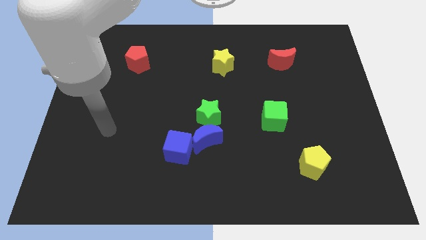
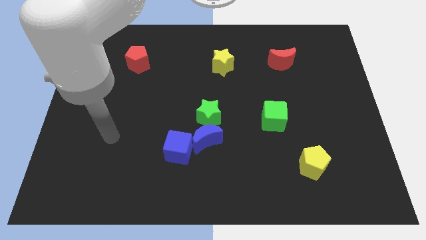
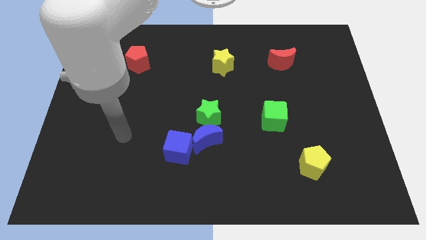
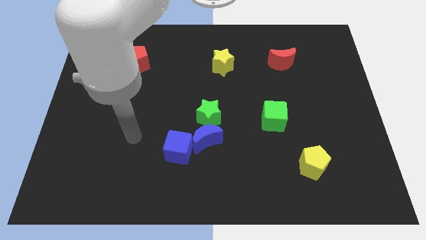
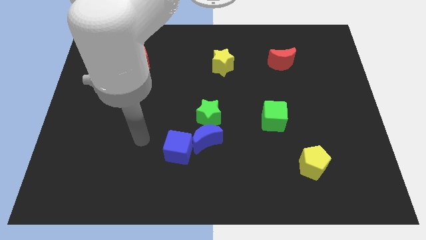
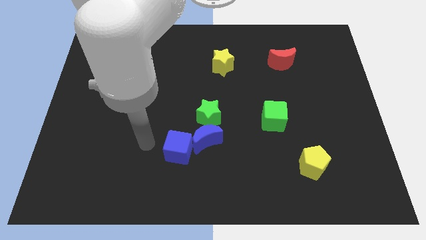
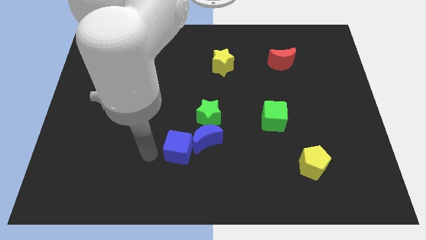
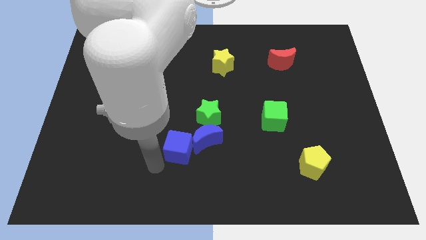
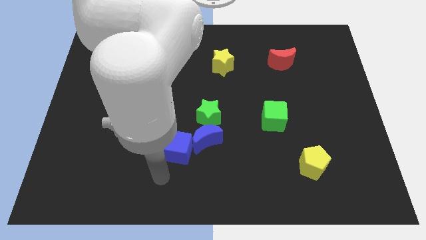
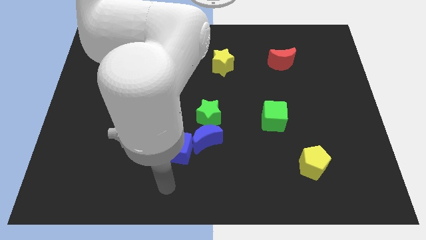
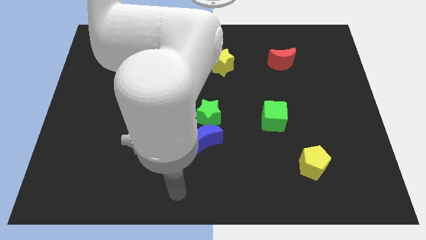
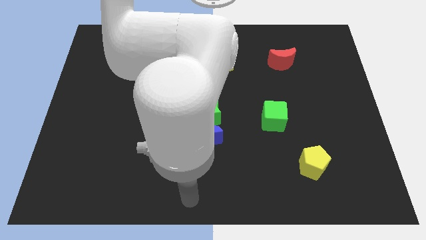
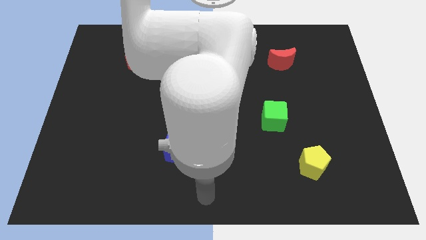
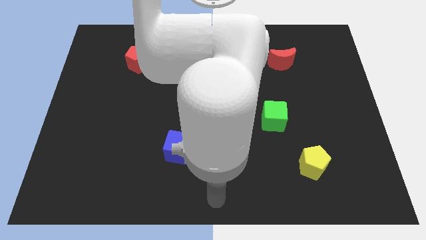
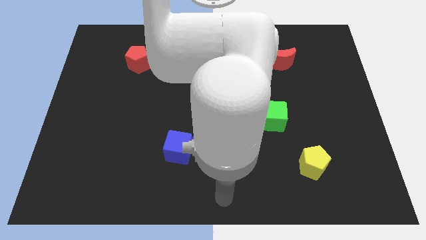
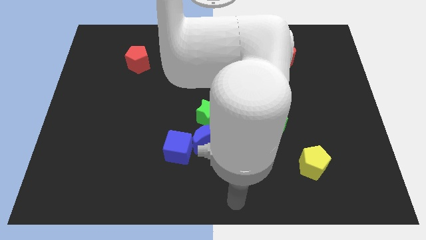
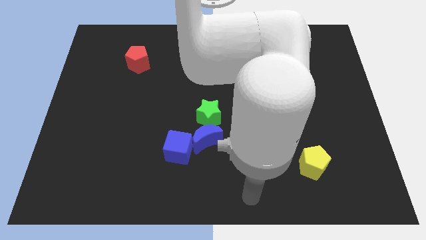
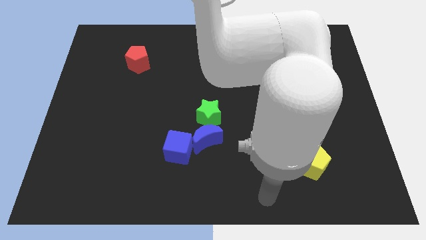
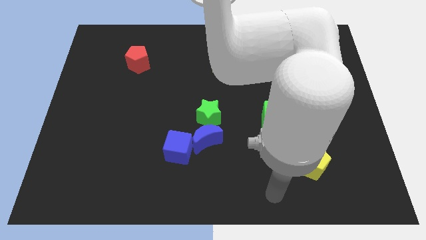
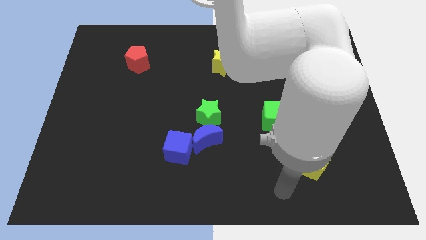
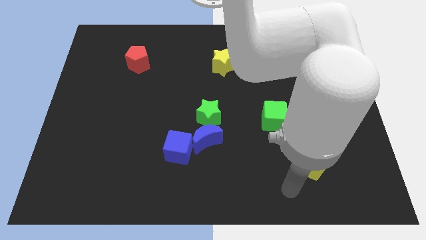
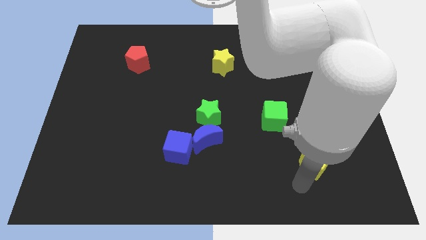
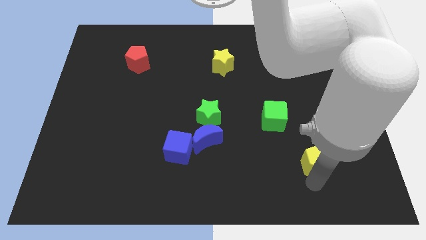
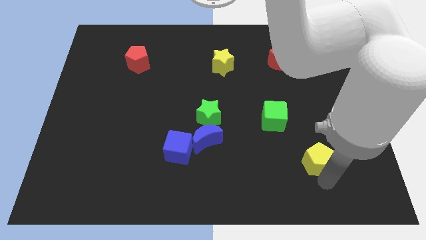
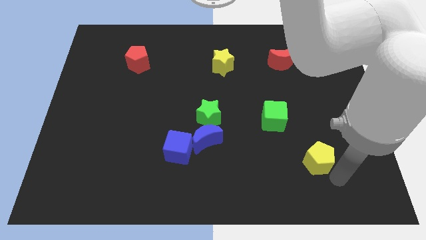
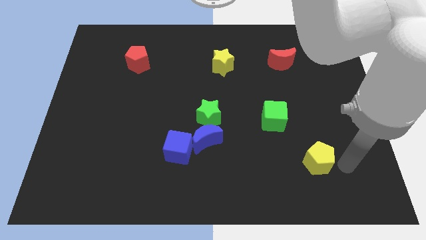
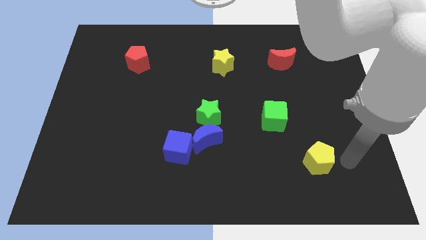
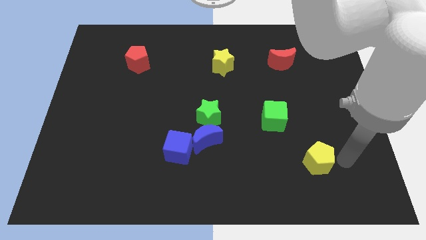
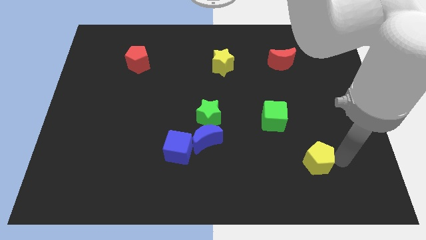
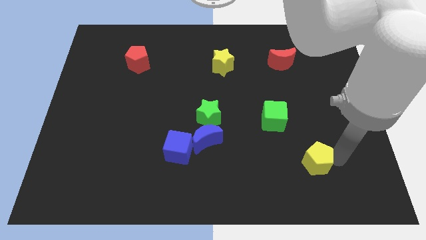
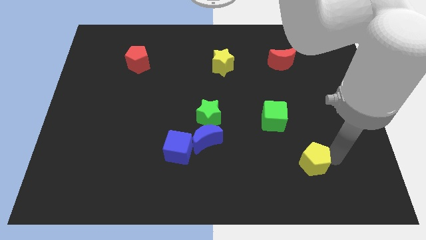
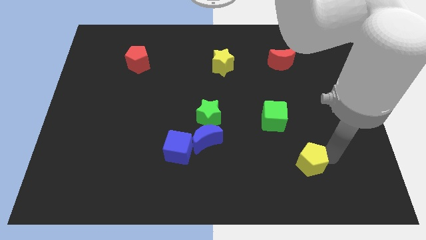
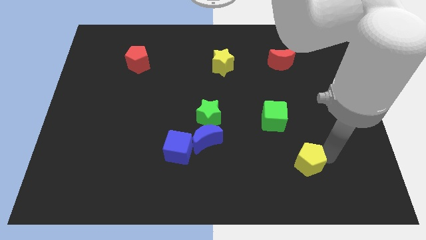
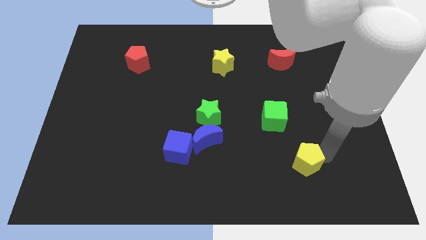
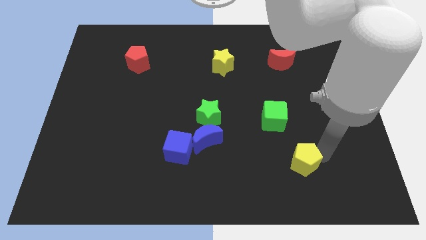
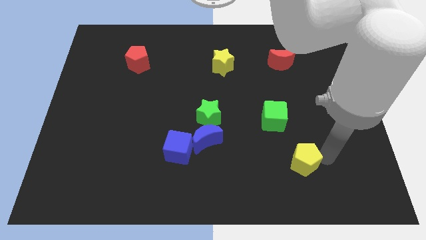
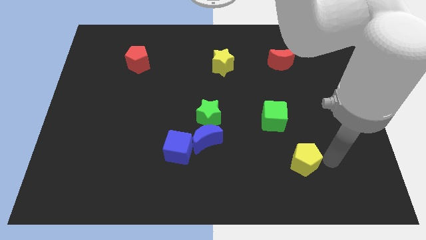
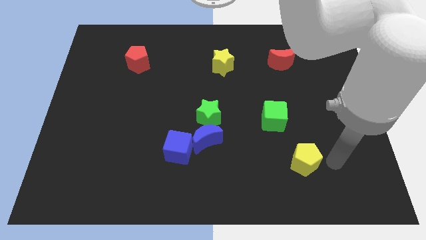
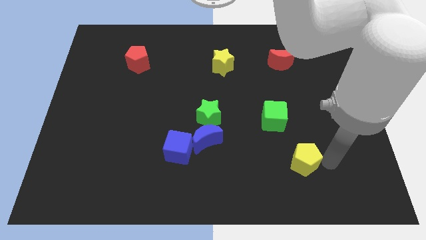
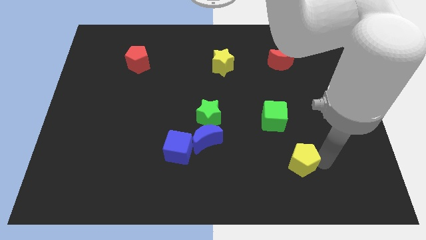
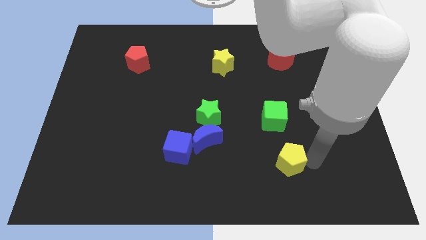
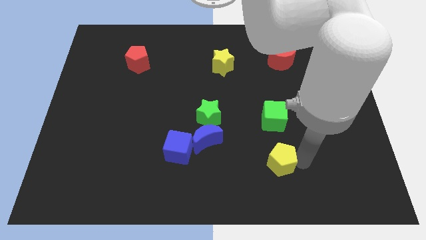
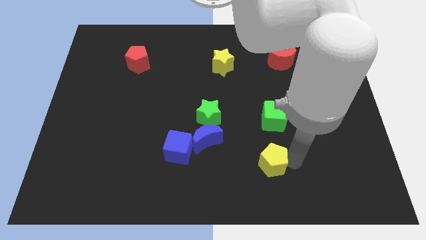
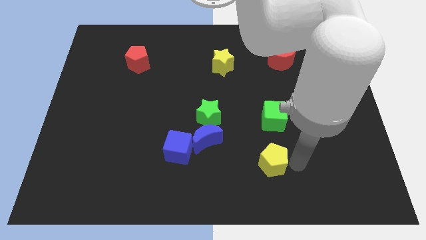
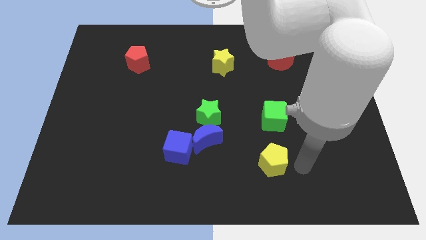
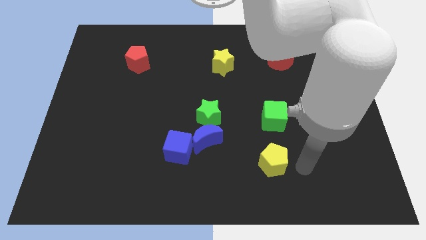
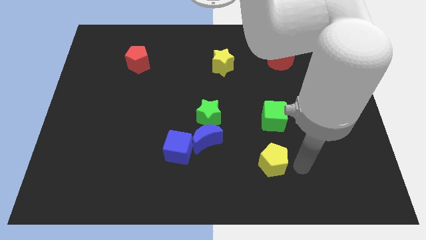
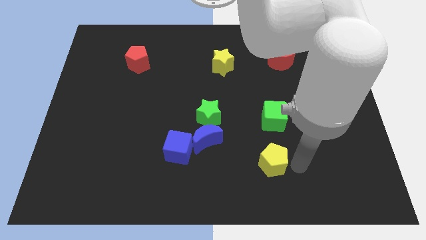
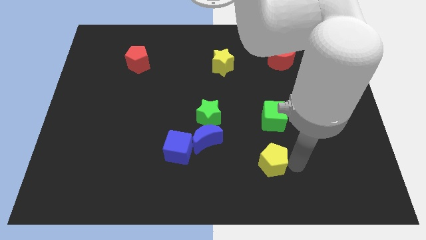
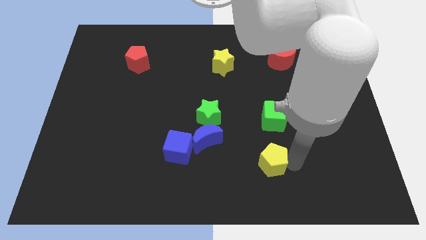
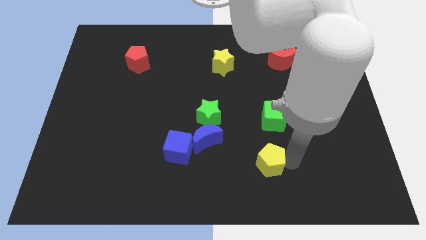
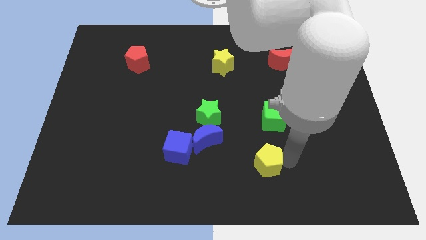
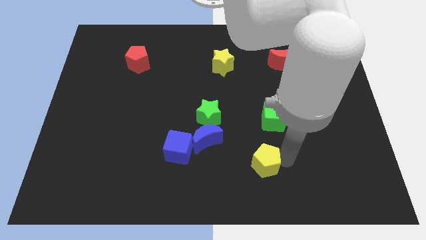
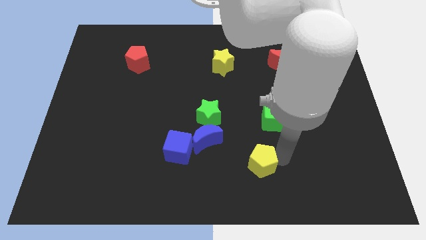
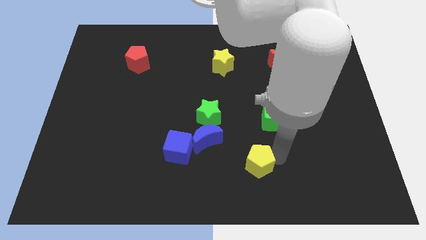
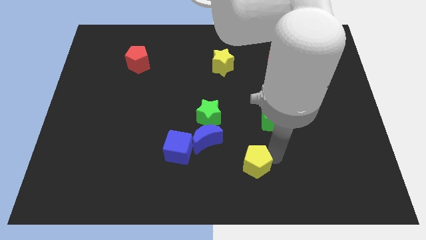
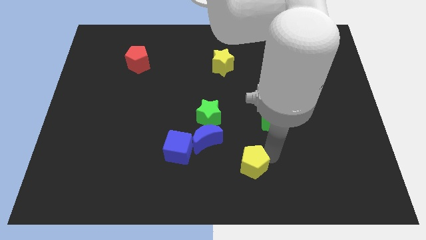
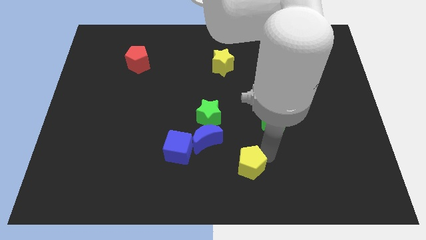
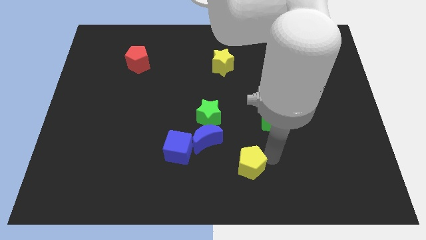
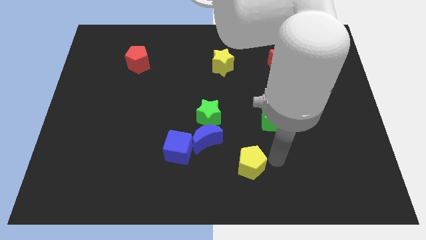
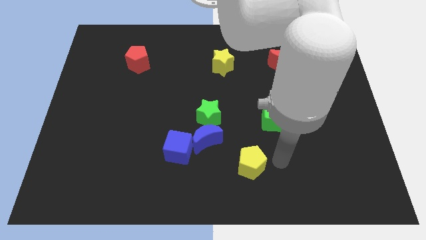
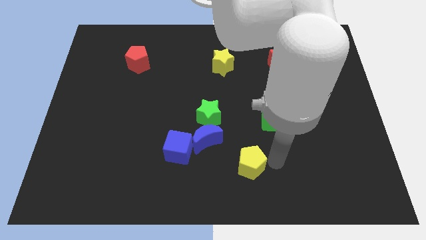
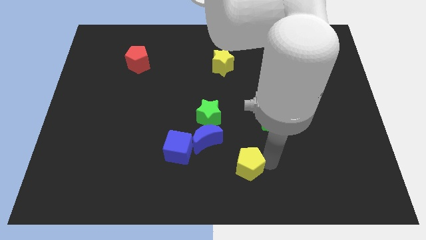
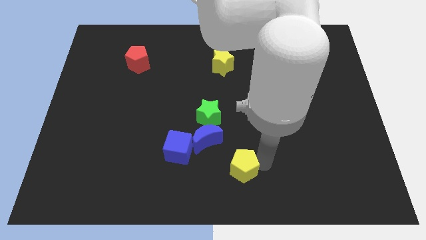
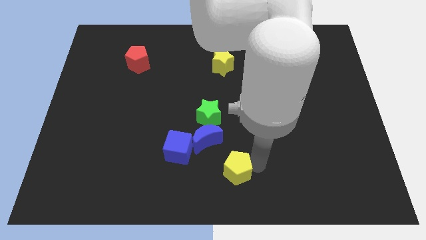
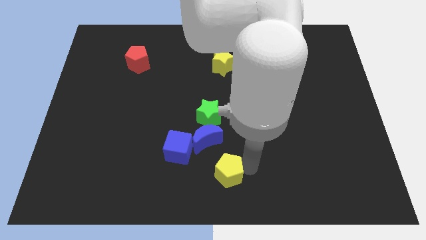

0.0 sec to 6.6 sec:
move the yellow pentagon to the bottom right of the blue cube

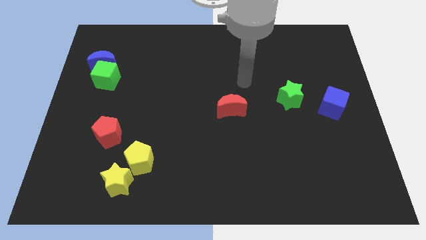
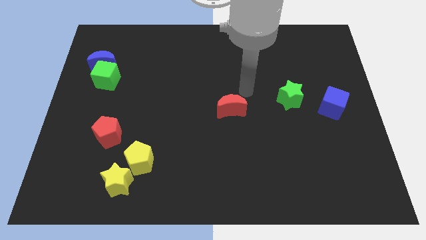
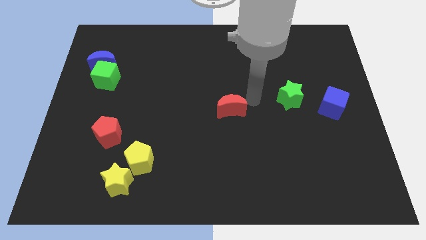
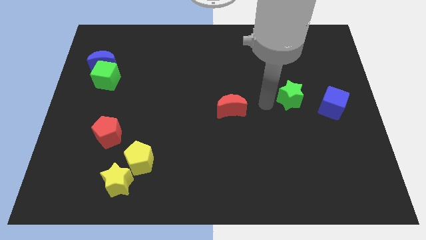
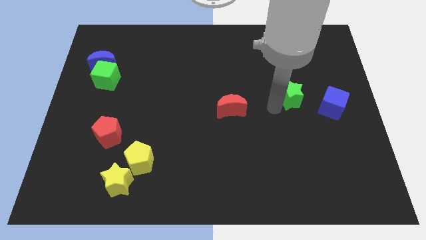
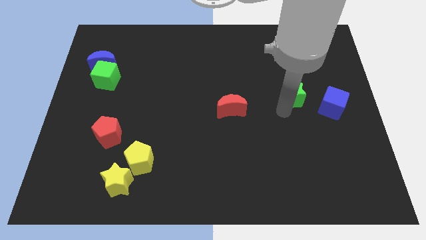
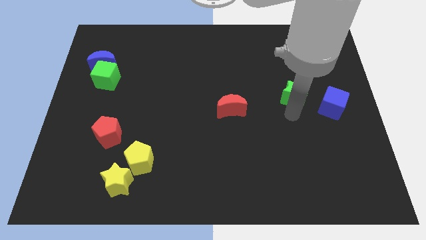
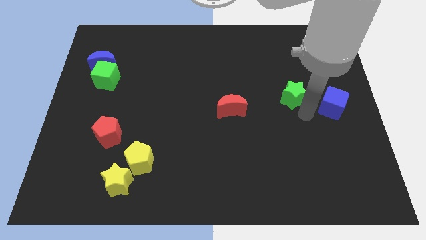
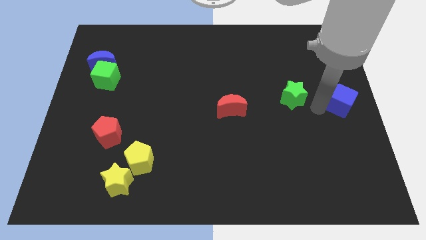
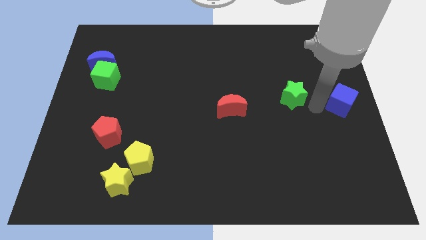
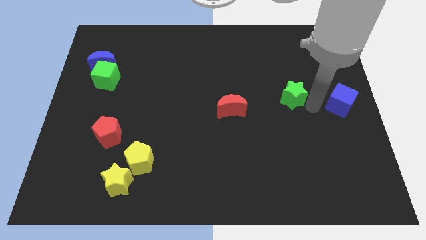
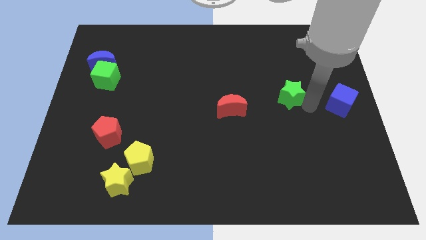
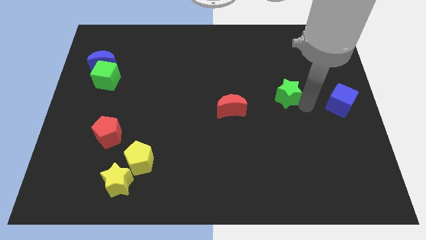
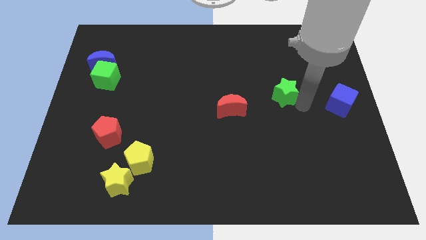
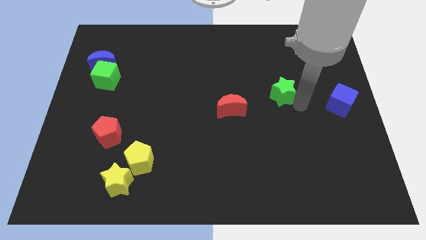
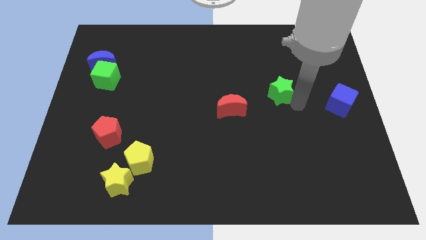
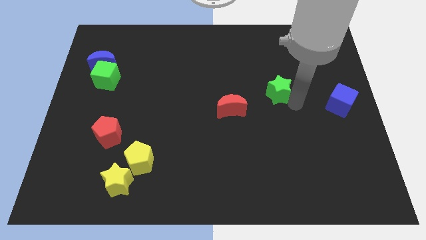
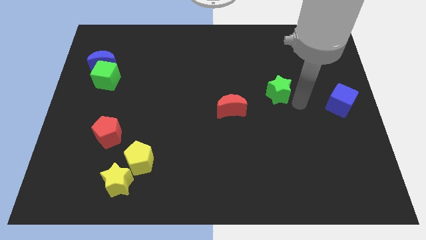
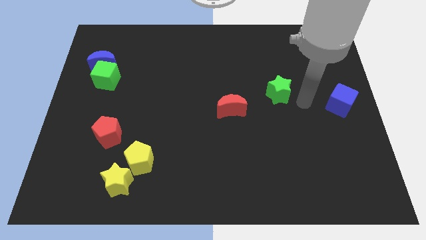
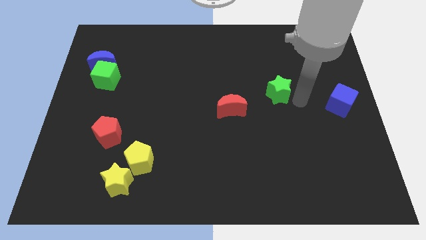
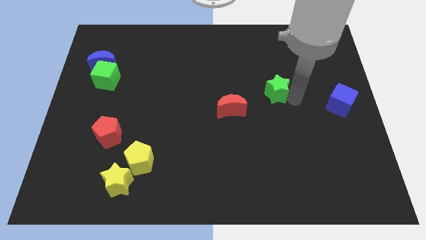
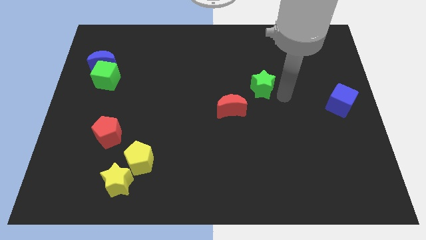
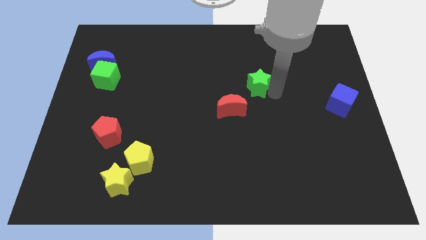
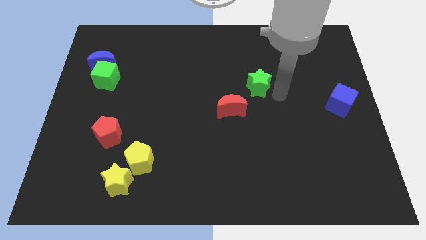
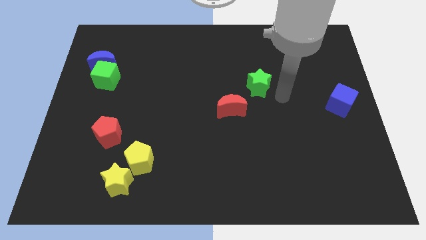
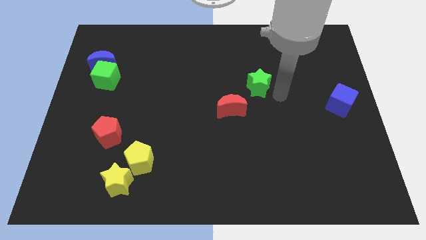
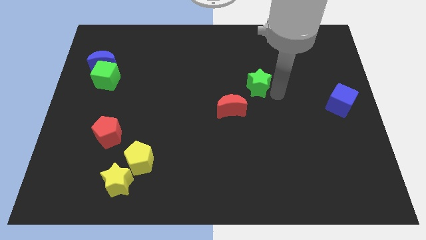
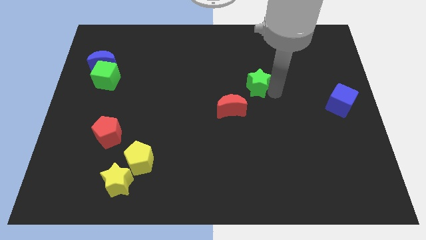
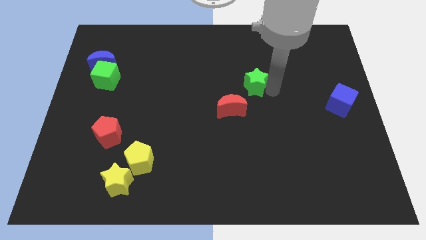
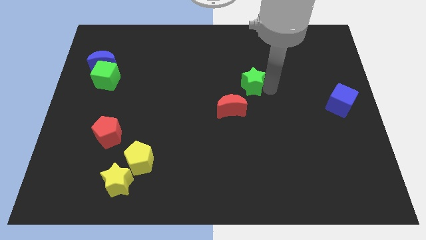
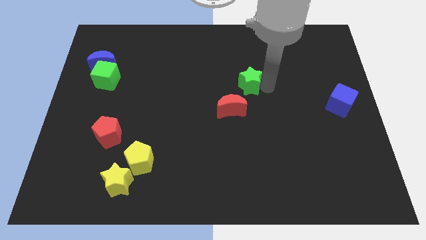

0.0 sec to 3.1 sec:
put the green star to the top side of the red moon
